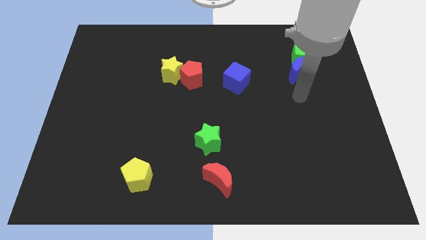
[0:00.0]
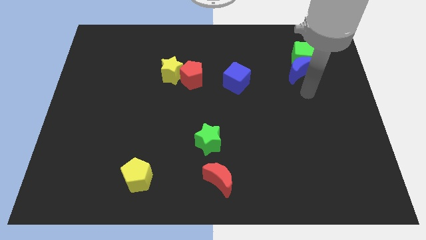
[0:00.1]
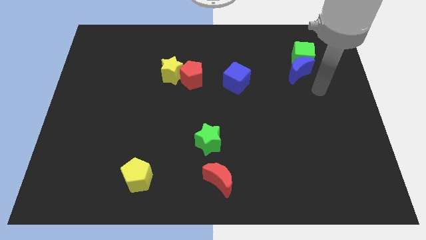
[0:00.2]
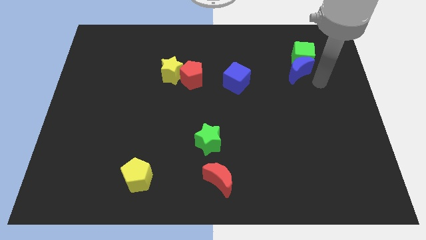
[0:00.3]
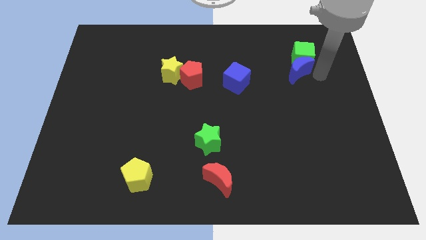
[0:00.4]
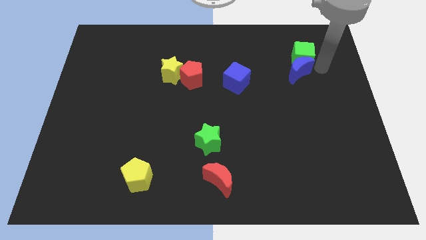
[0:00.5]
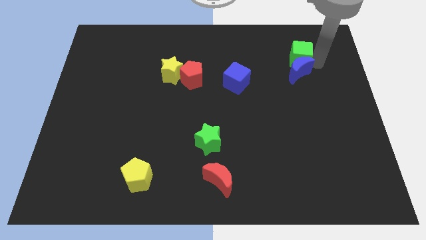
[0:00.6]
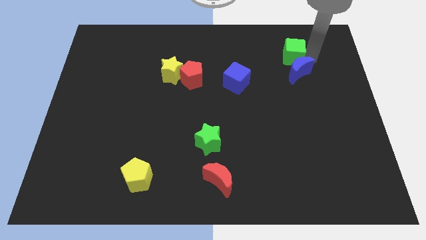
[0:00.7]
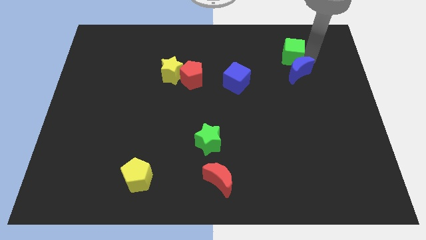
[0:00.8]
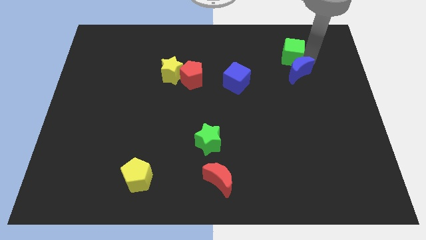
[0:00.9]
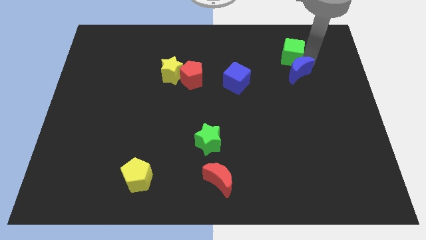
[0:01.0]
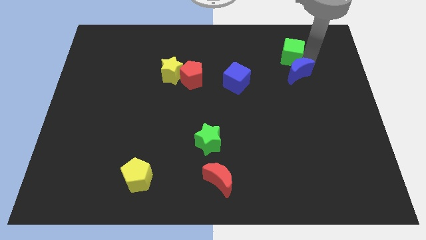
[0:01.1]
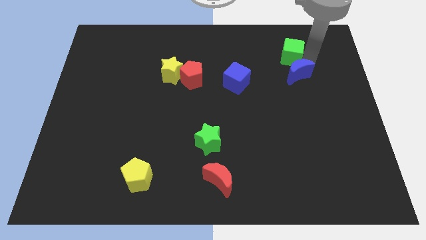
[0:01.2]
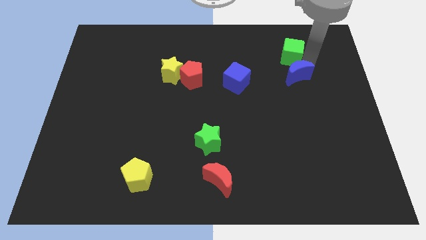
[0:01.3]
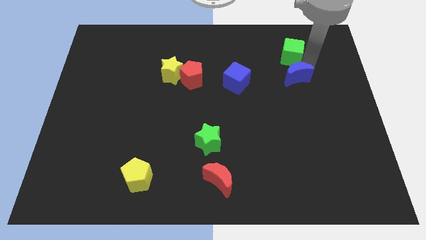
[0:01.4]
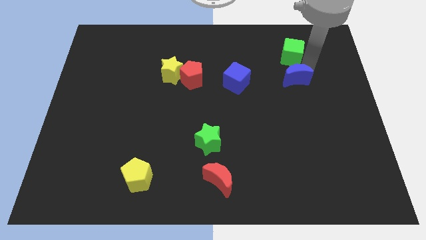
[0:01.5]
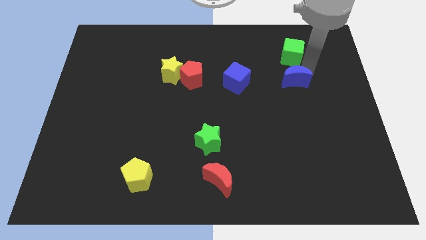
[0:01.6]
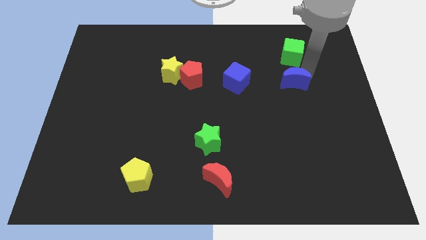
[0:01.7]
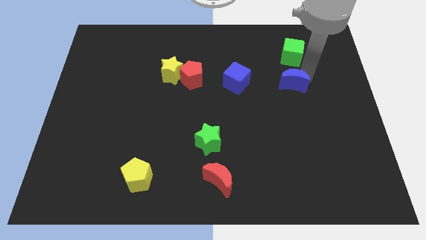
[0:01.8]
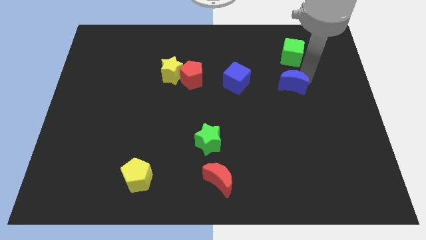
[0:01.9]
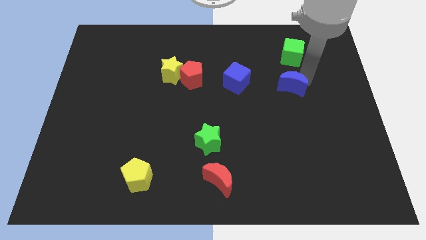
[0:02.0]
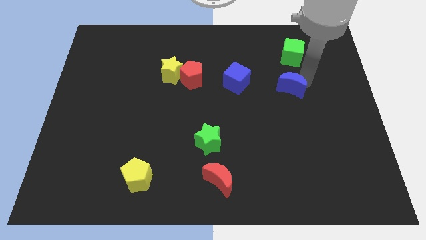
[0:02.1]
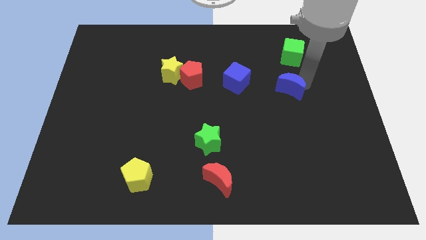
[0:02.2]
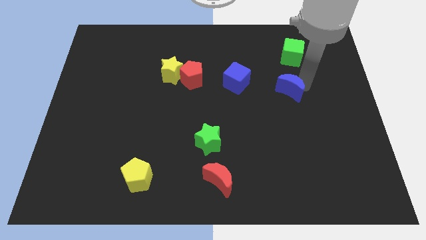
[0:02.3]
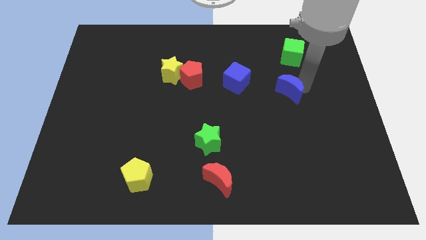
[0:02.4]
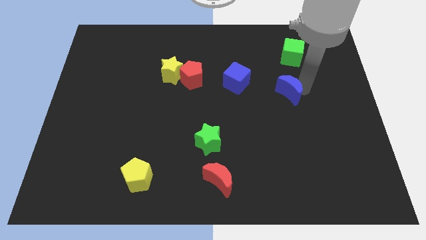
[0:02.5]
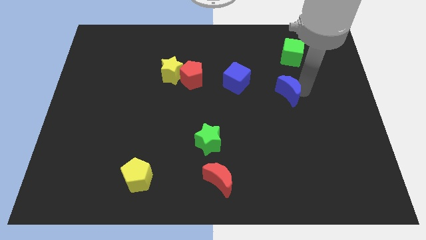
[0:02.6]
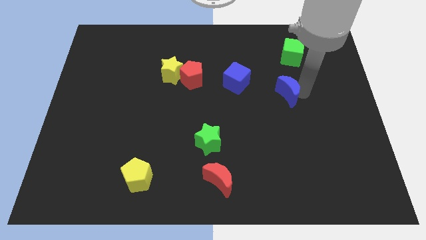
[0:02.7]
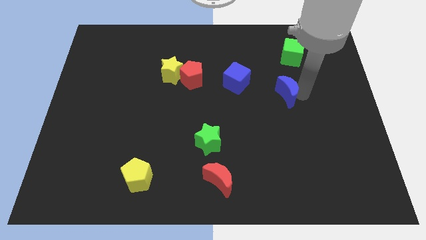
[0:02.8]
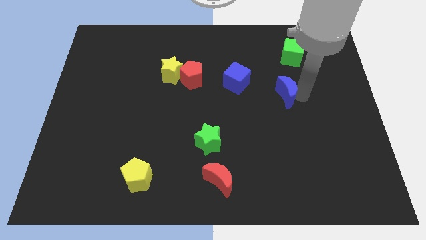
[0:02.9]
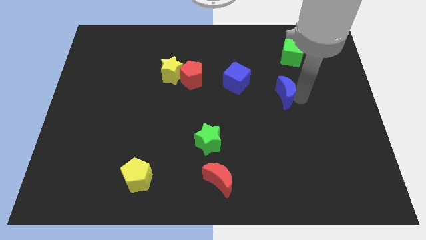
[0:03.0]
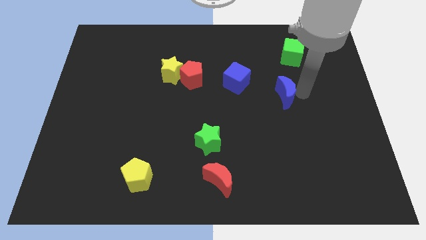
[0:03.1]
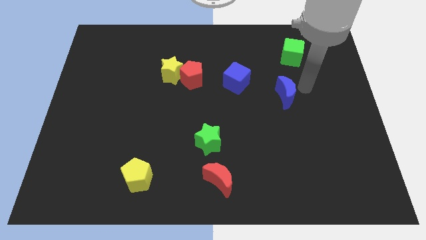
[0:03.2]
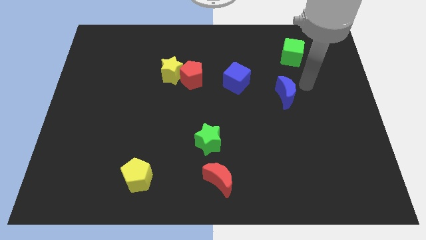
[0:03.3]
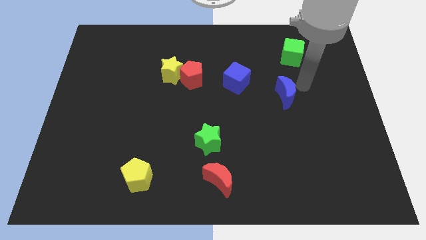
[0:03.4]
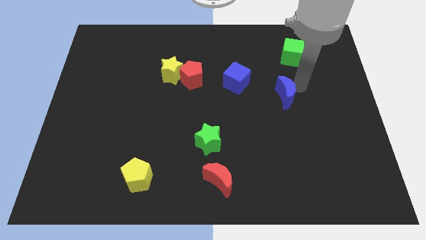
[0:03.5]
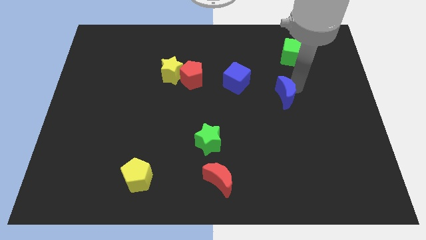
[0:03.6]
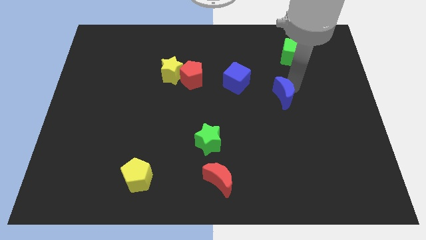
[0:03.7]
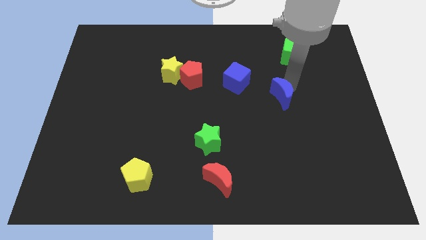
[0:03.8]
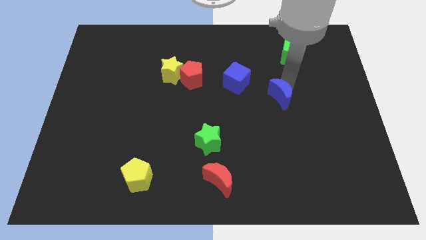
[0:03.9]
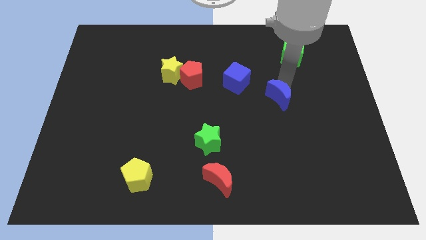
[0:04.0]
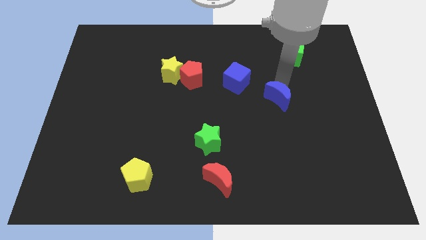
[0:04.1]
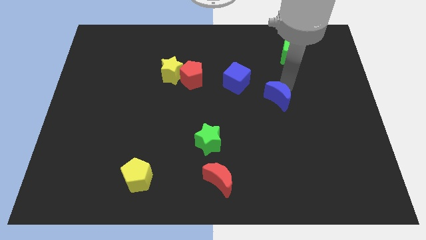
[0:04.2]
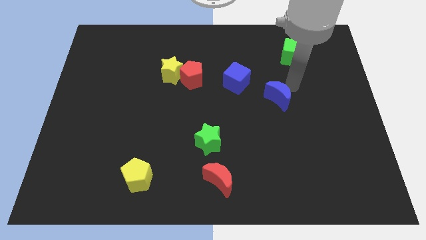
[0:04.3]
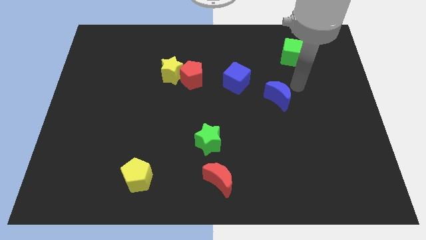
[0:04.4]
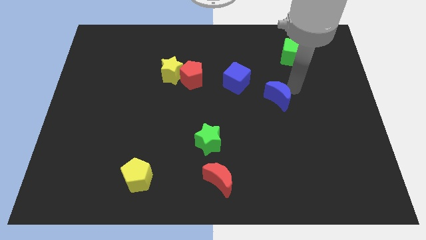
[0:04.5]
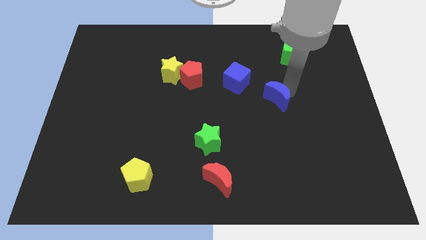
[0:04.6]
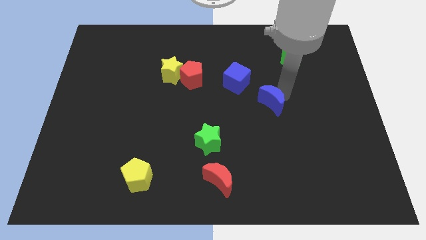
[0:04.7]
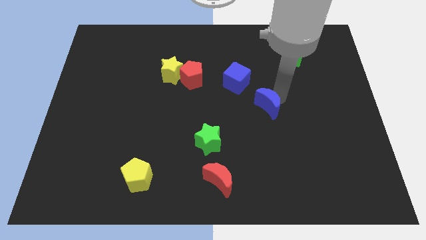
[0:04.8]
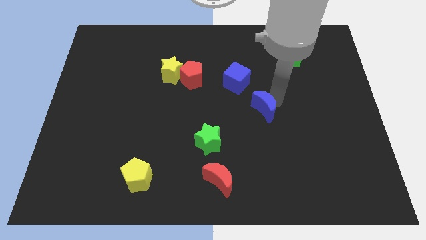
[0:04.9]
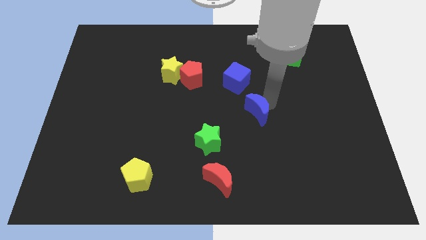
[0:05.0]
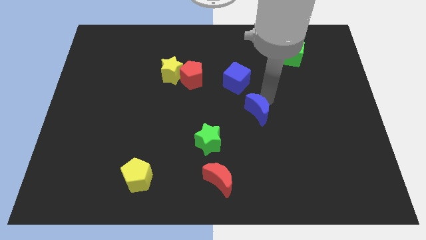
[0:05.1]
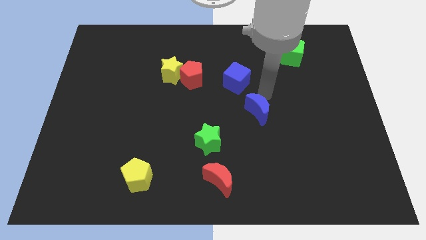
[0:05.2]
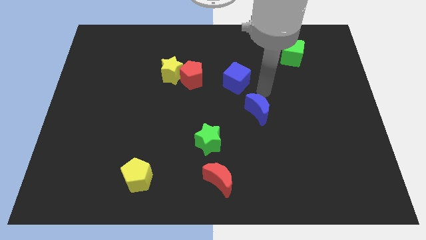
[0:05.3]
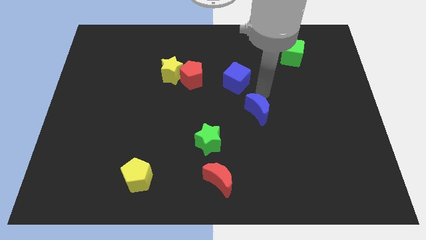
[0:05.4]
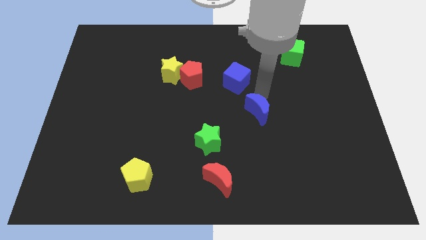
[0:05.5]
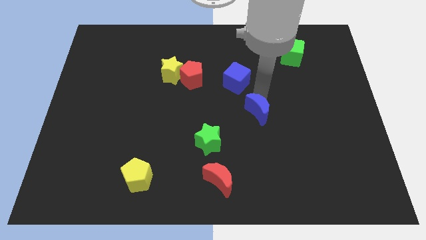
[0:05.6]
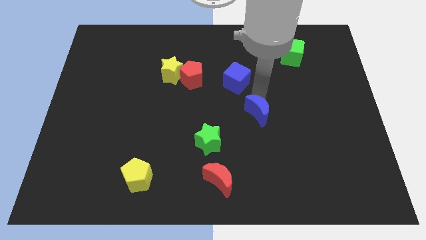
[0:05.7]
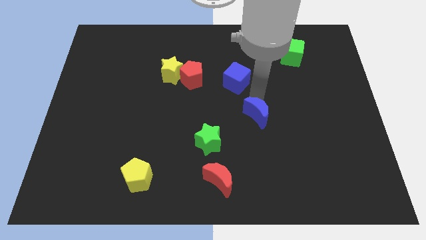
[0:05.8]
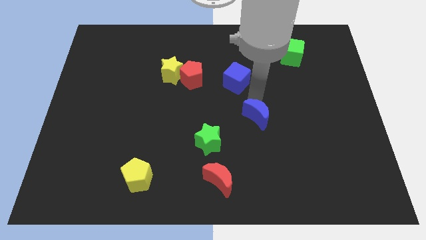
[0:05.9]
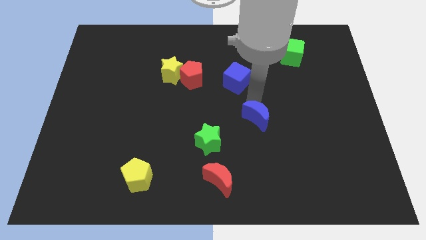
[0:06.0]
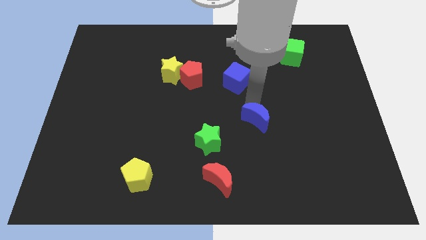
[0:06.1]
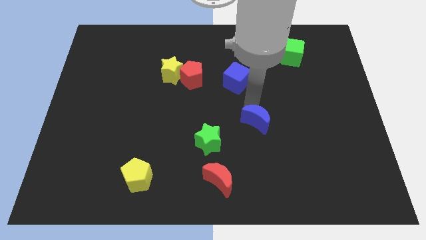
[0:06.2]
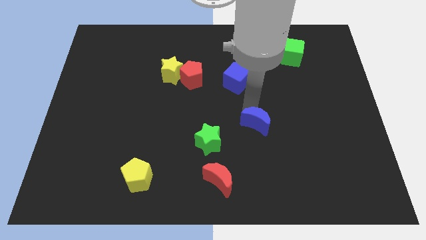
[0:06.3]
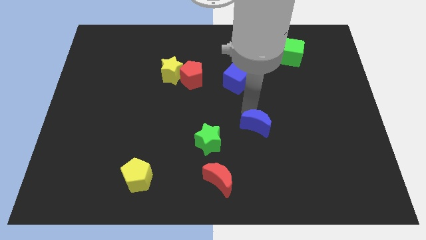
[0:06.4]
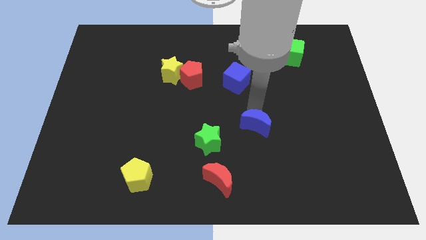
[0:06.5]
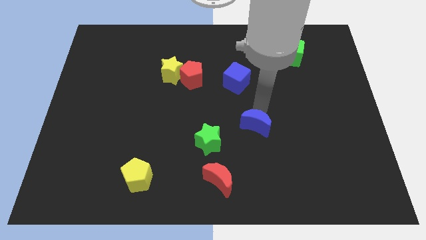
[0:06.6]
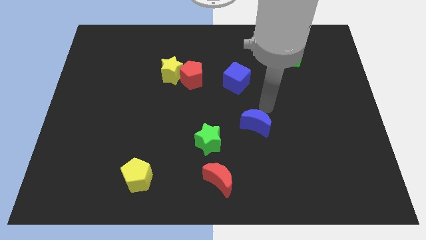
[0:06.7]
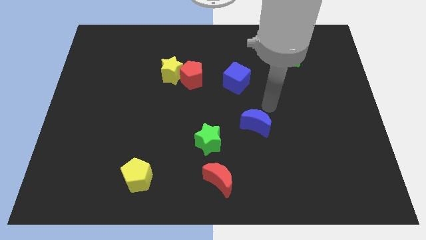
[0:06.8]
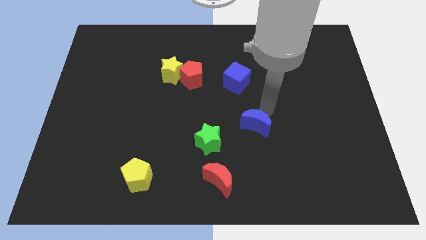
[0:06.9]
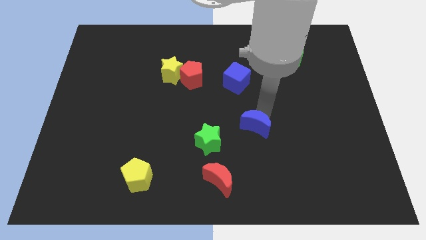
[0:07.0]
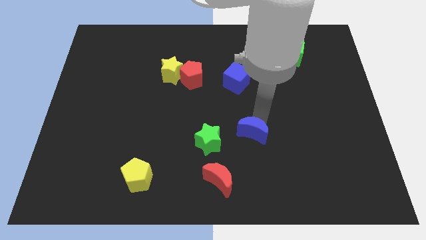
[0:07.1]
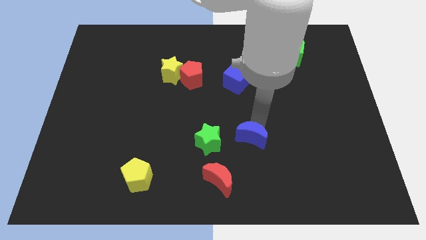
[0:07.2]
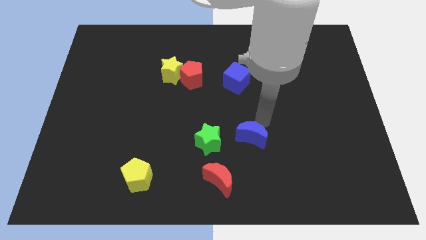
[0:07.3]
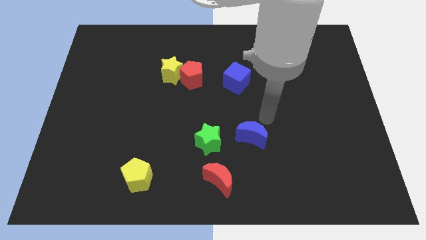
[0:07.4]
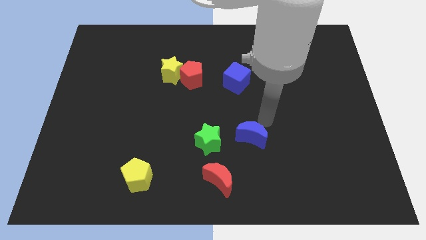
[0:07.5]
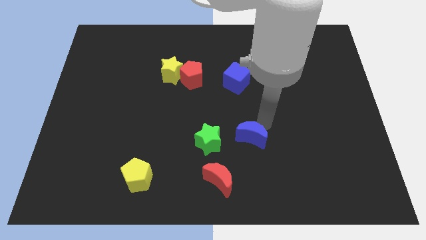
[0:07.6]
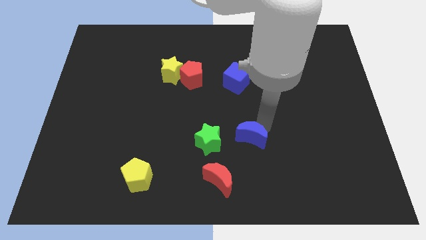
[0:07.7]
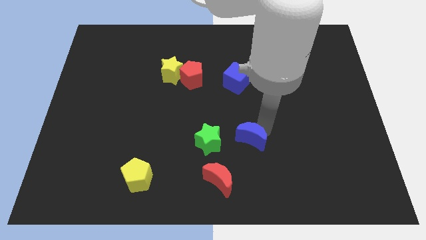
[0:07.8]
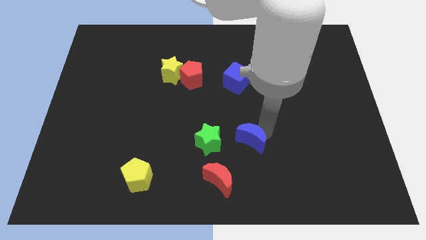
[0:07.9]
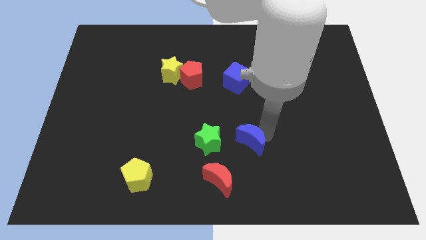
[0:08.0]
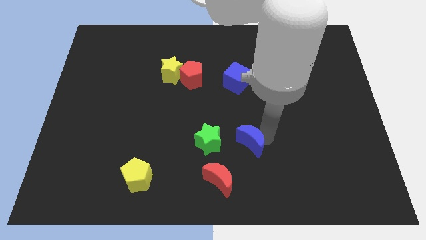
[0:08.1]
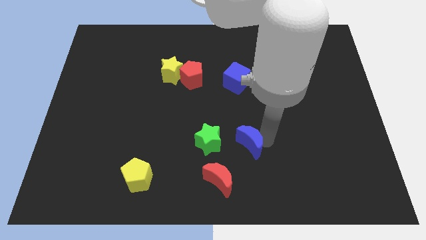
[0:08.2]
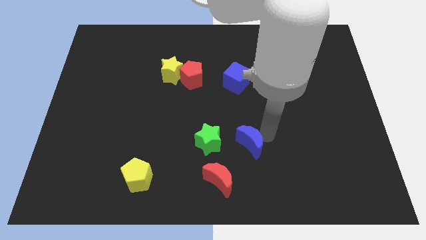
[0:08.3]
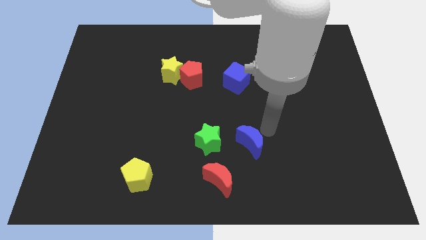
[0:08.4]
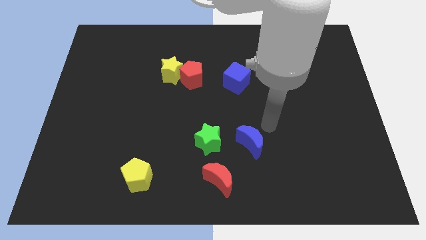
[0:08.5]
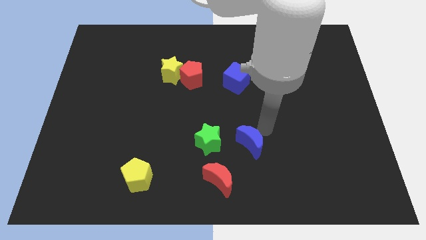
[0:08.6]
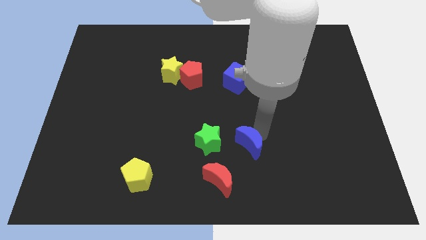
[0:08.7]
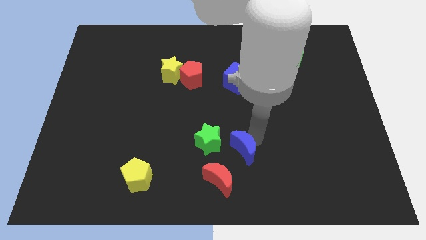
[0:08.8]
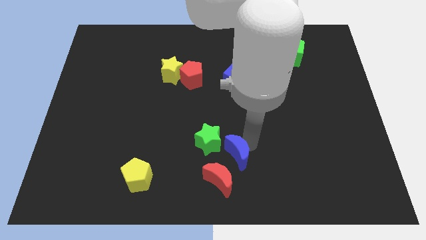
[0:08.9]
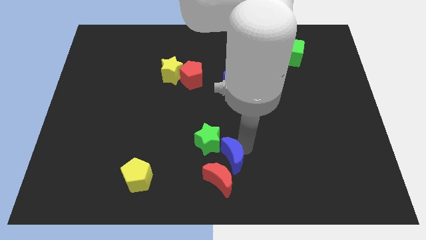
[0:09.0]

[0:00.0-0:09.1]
push the blue moon next to the red moon
